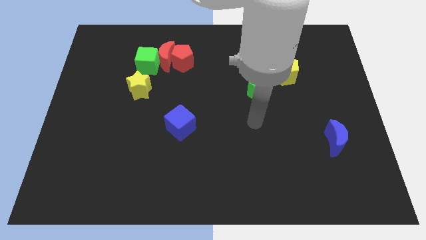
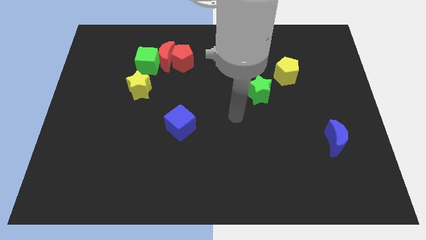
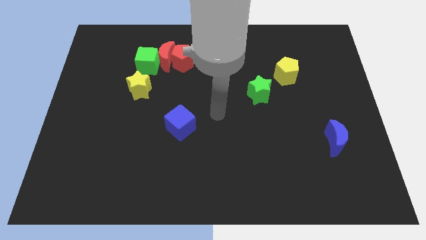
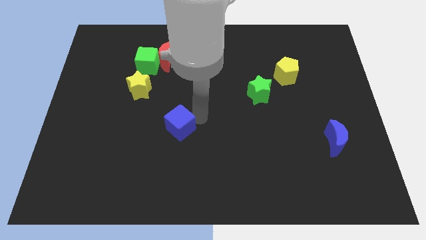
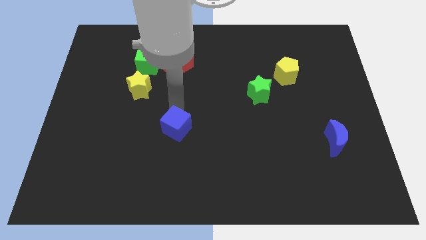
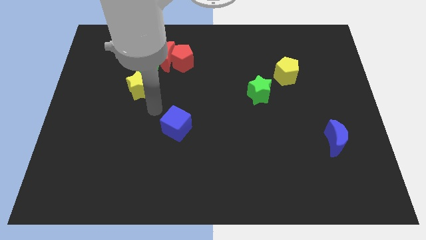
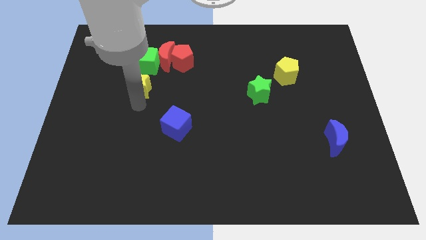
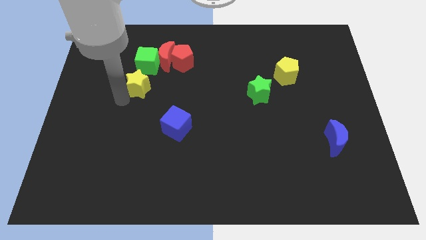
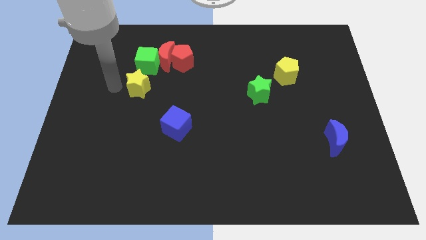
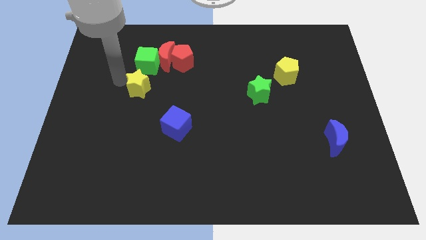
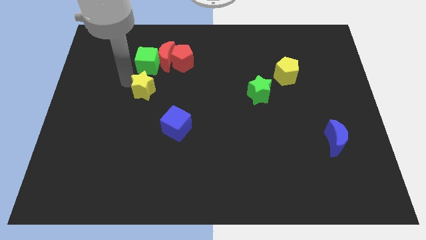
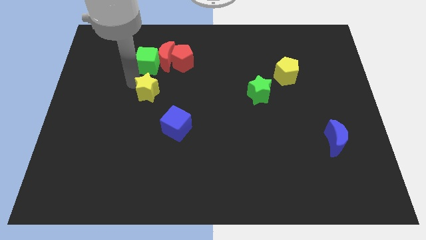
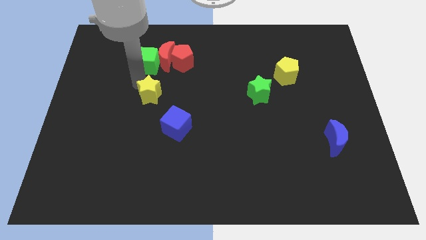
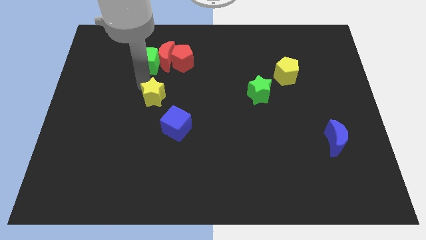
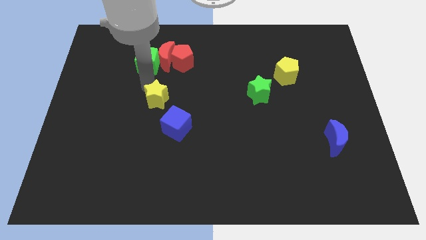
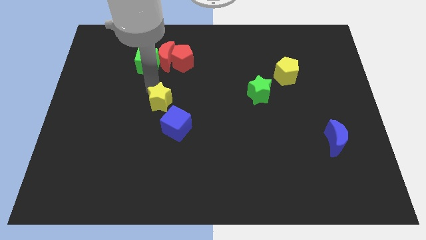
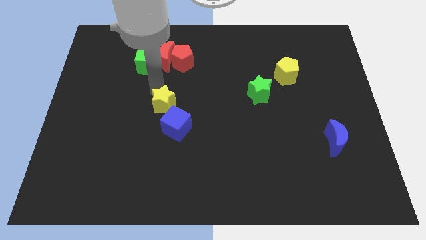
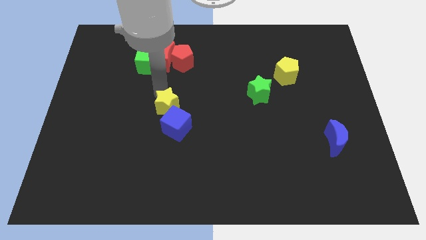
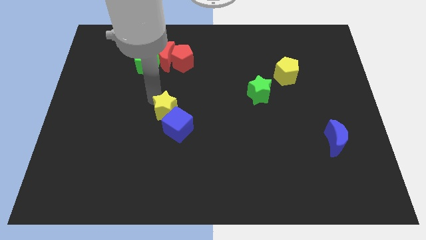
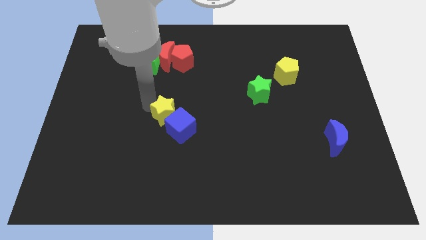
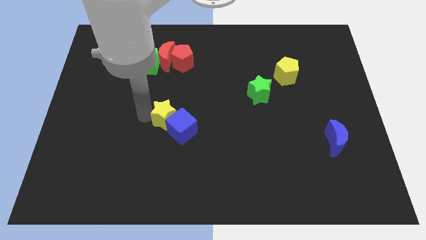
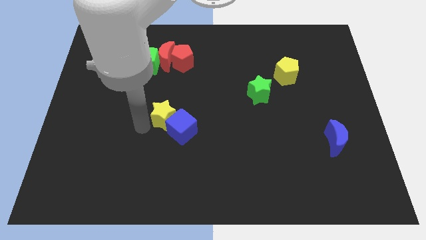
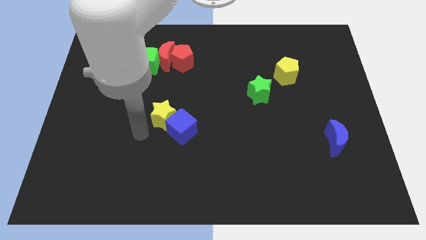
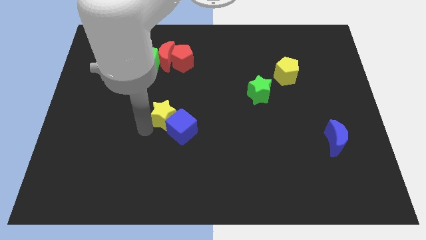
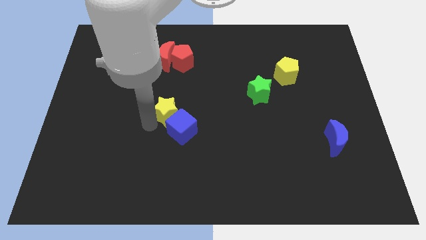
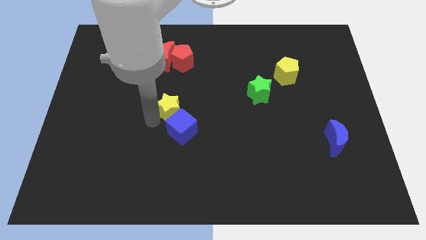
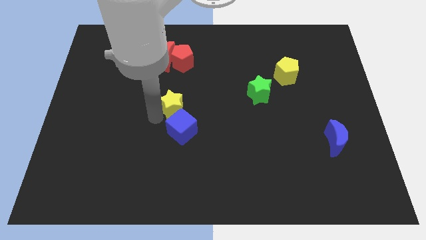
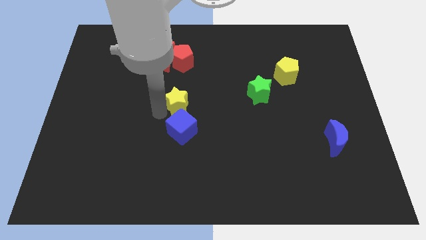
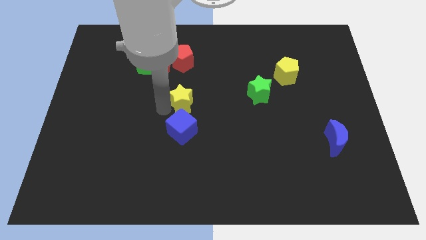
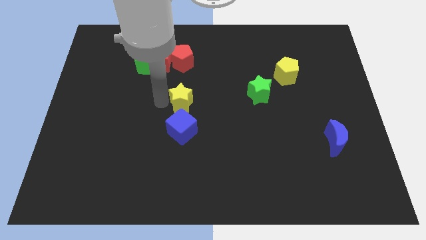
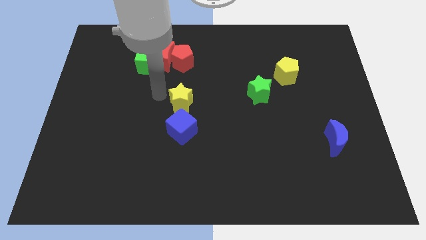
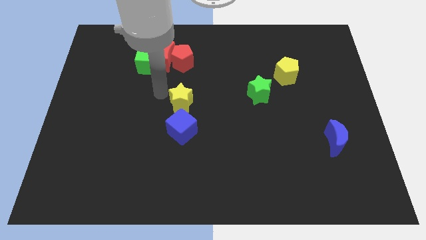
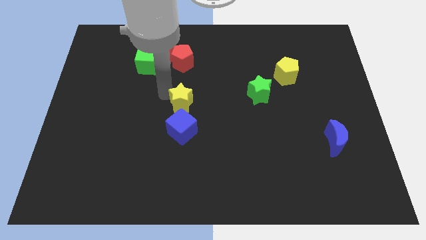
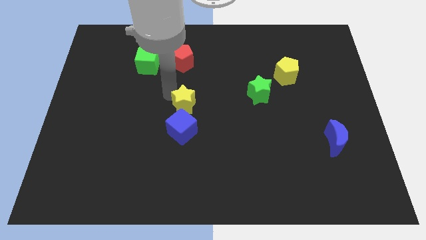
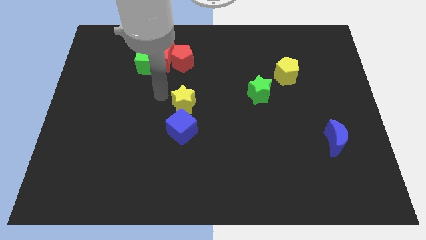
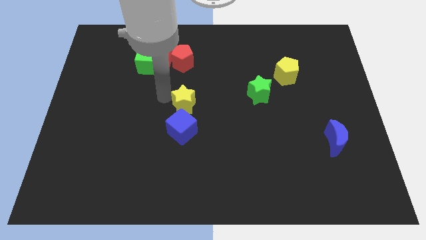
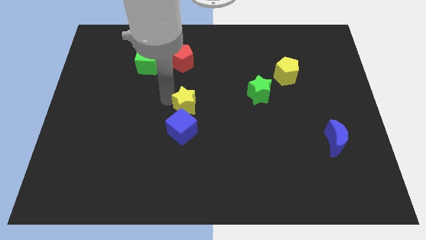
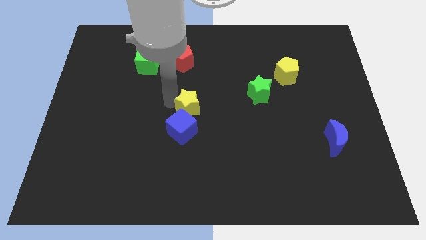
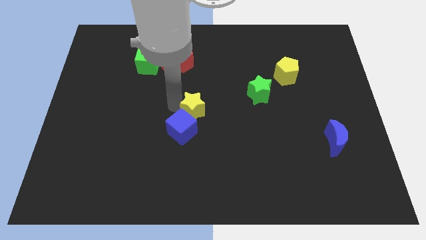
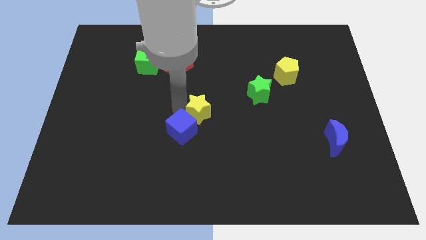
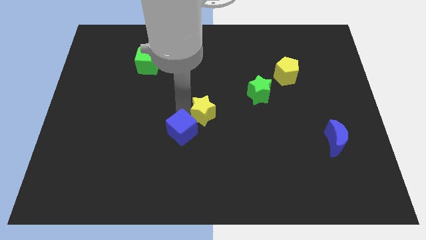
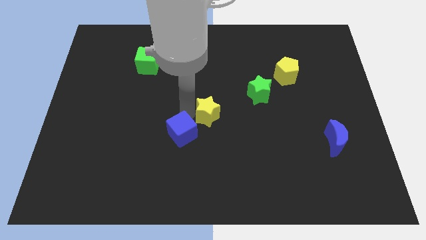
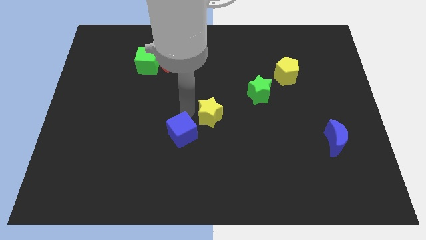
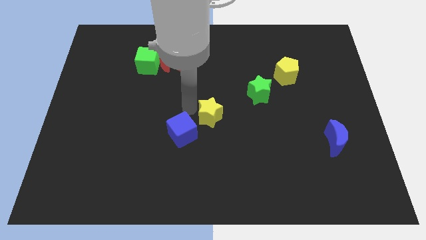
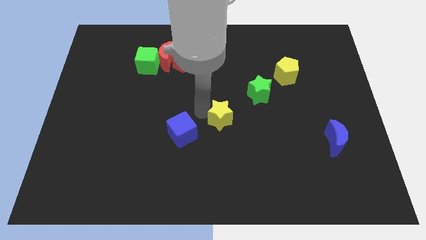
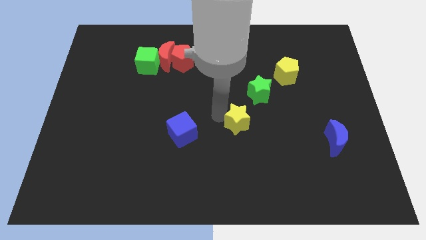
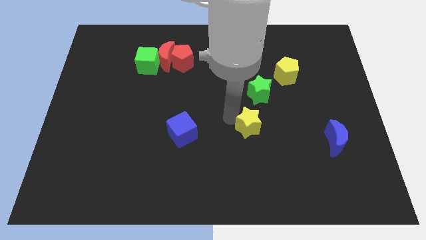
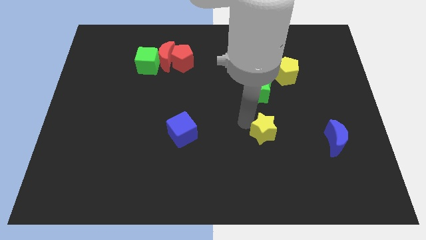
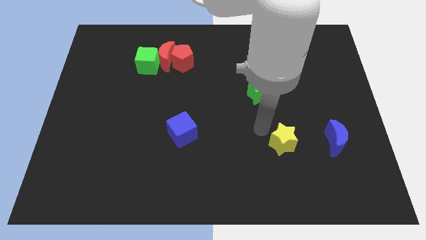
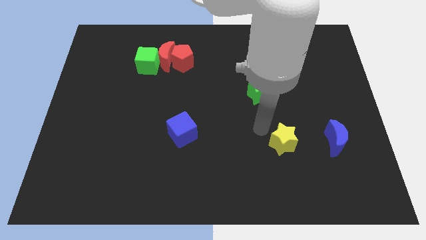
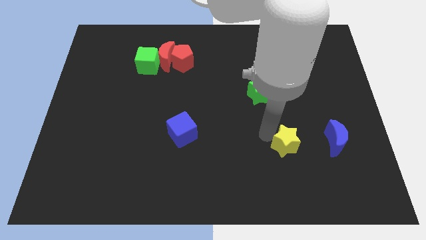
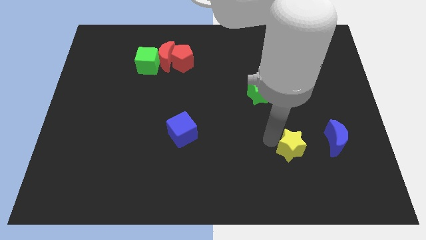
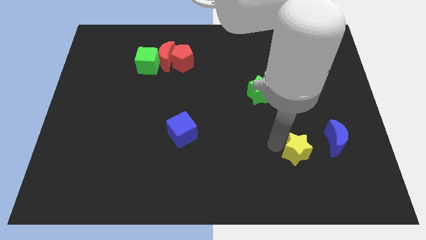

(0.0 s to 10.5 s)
push the yellow star to the bottom left of the blue moon
